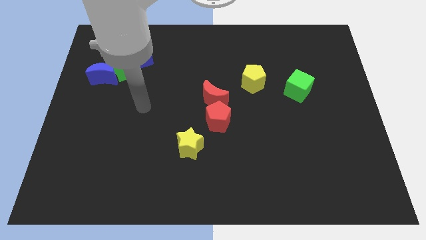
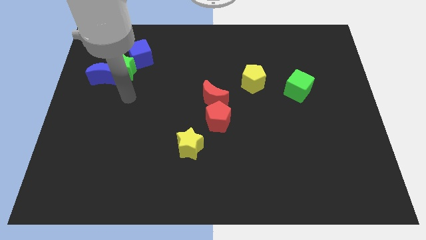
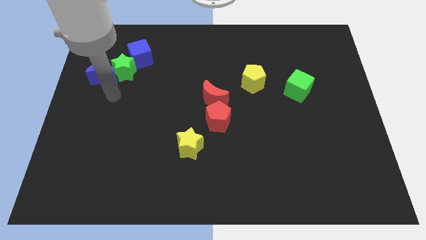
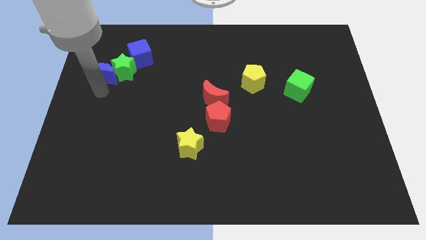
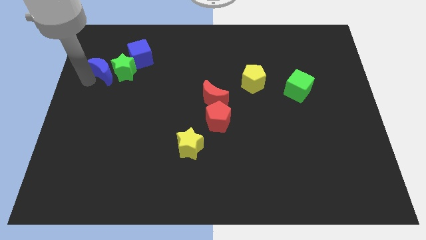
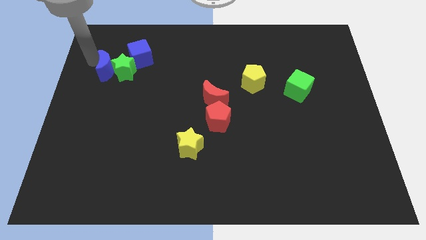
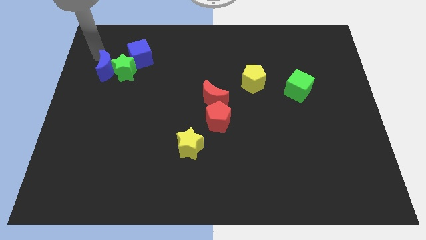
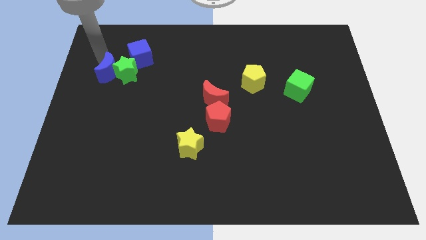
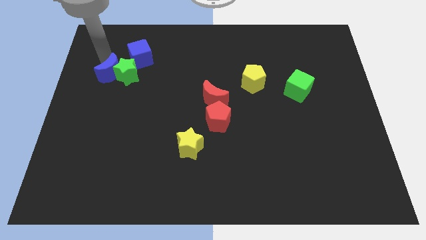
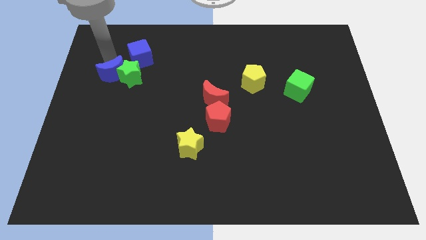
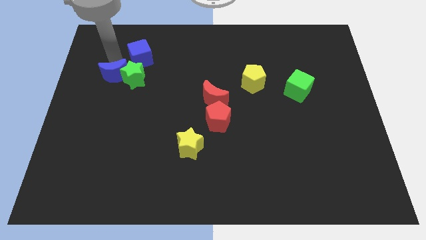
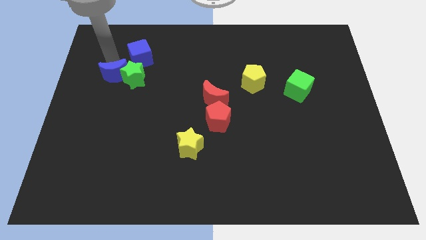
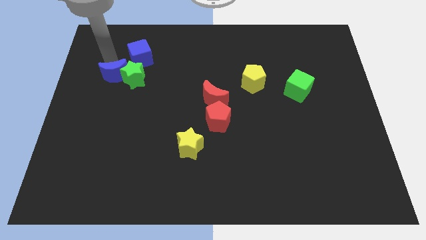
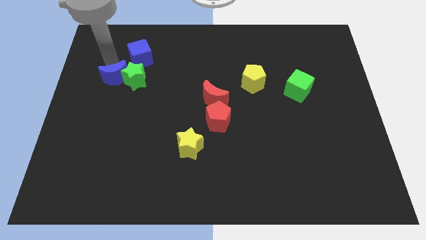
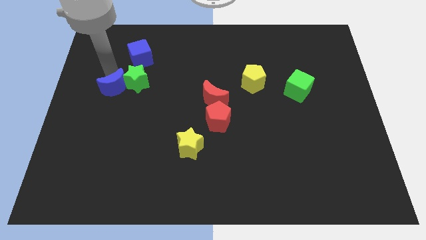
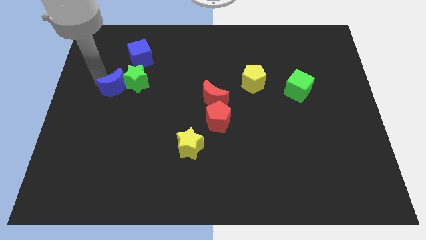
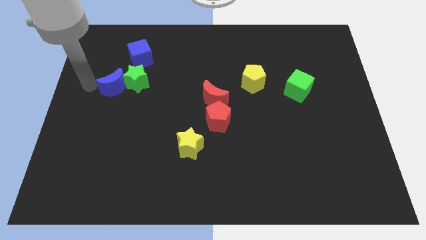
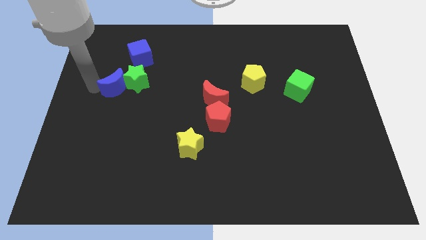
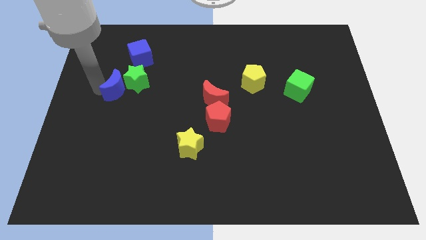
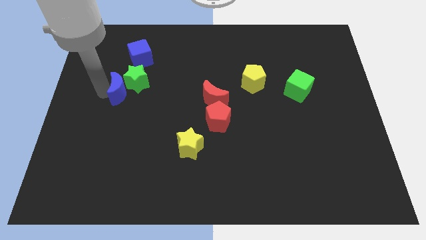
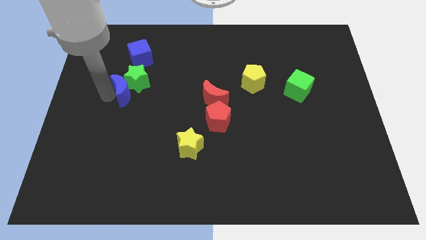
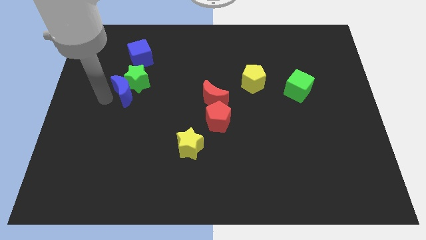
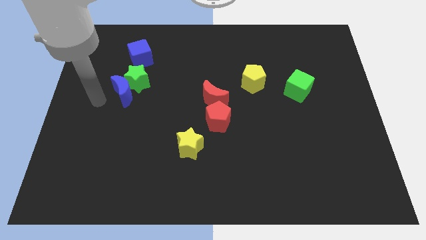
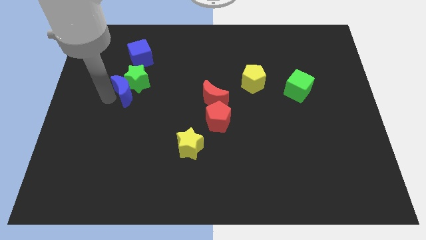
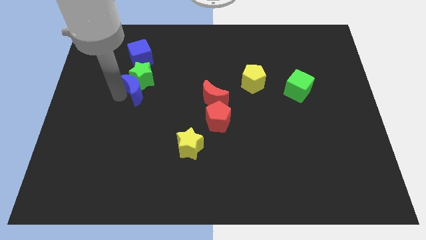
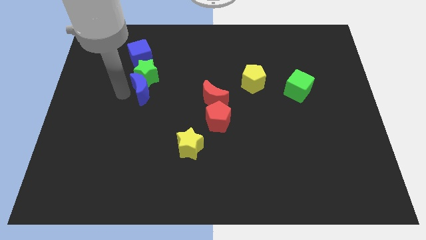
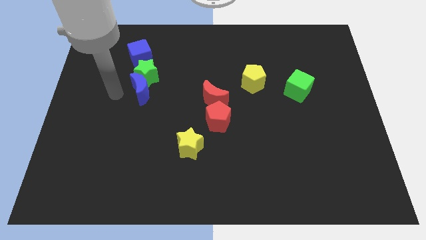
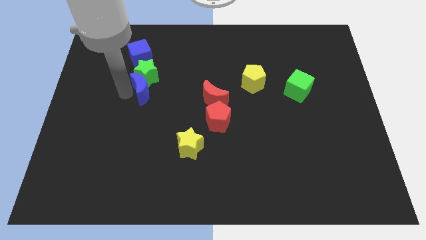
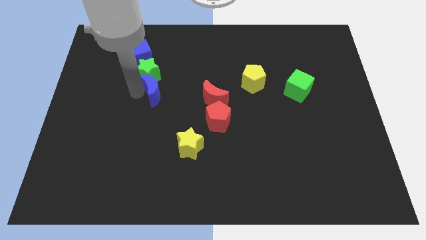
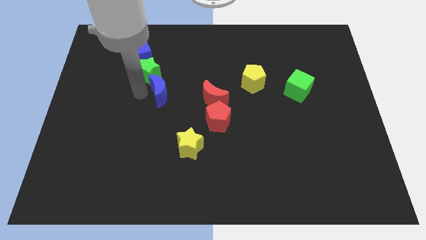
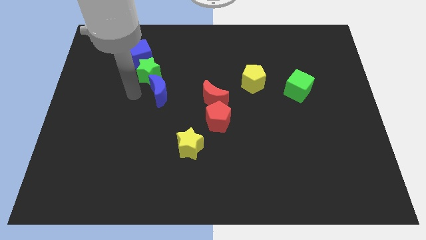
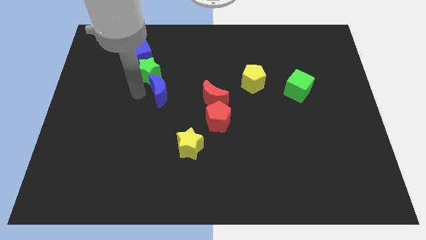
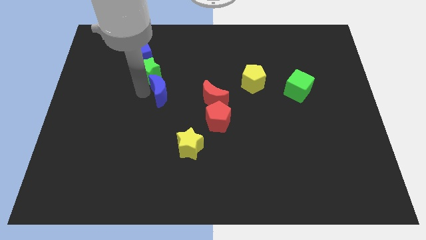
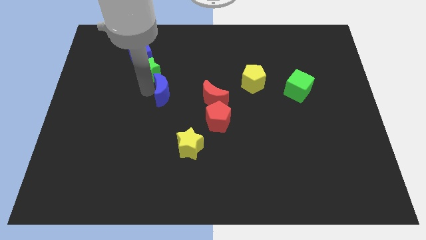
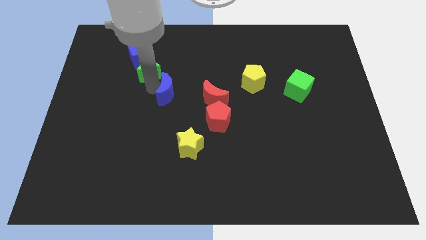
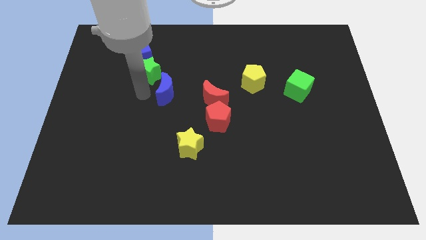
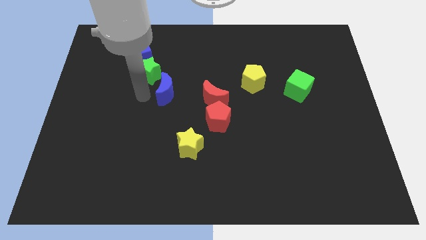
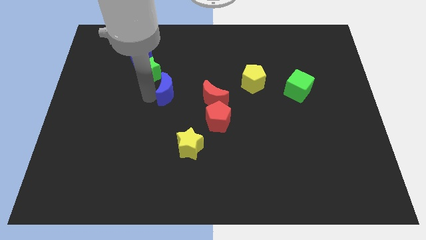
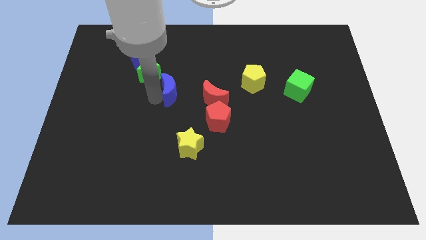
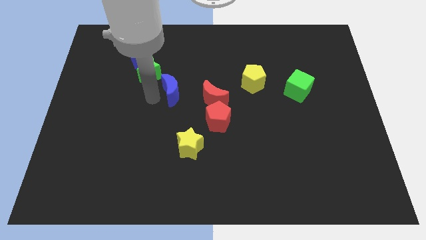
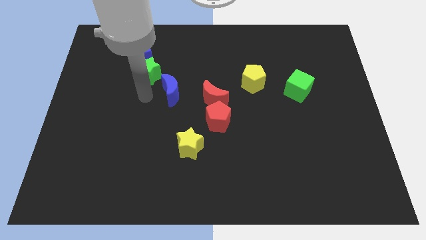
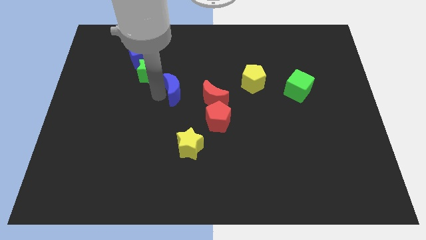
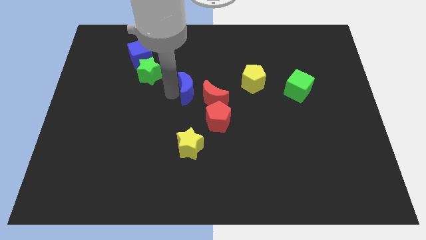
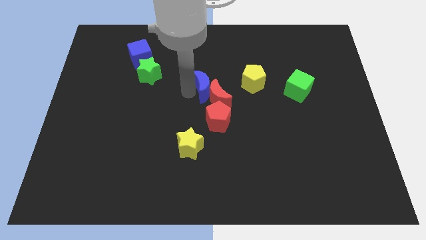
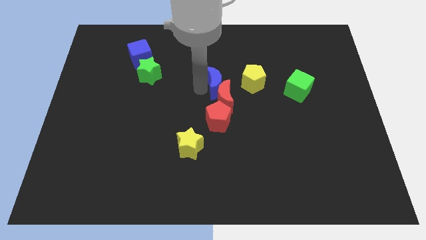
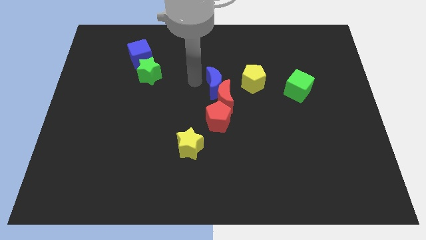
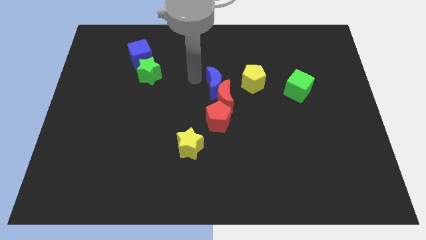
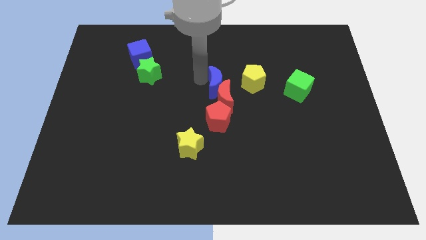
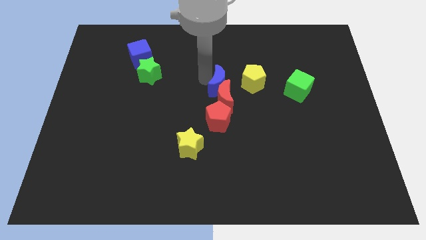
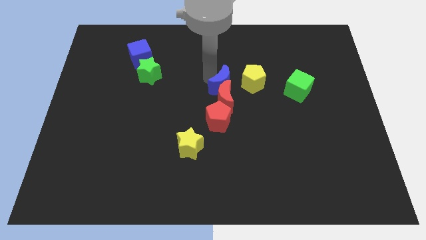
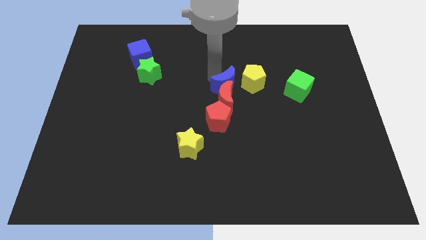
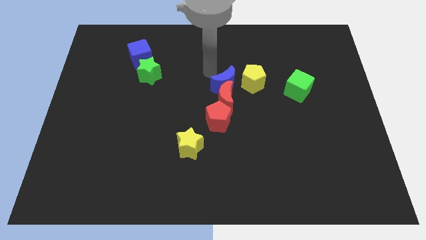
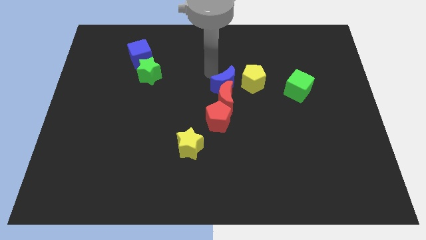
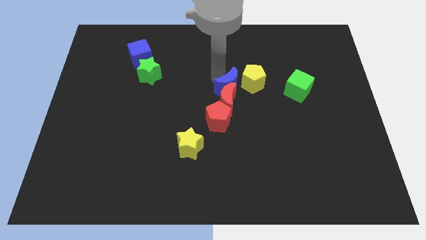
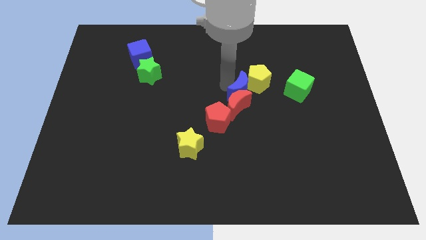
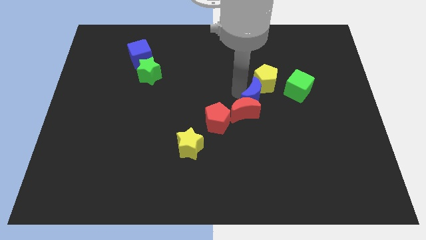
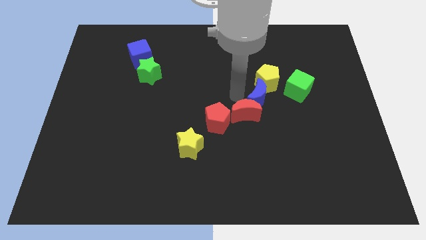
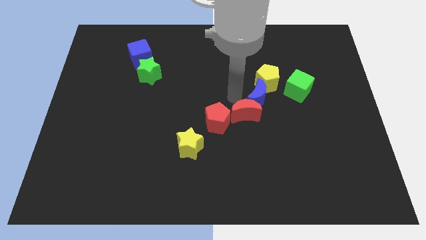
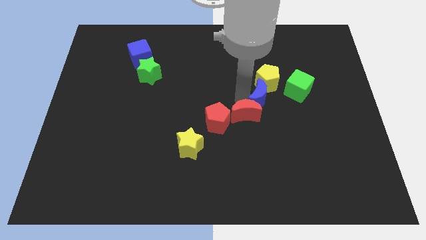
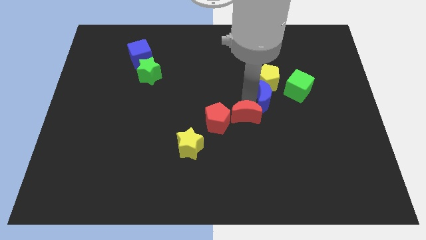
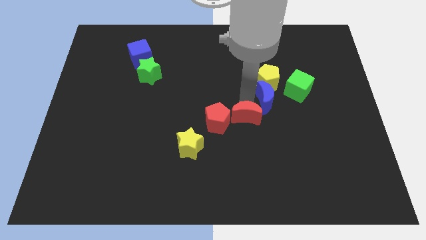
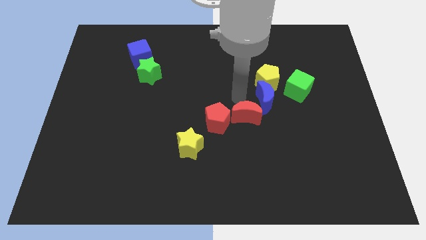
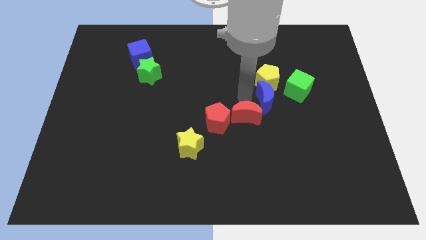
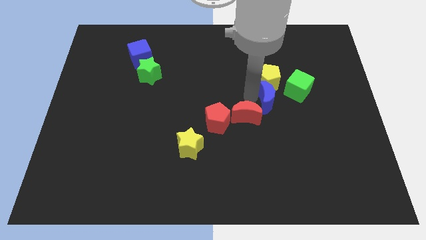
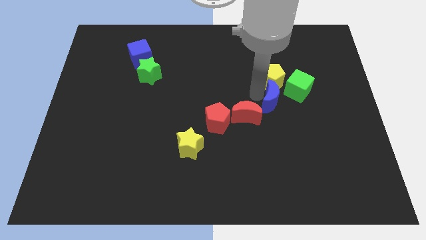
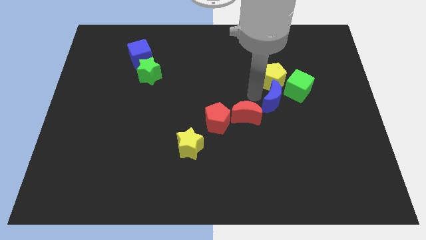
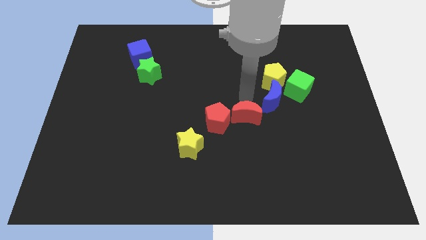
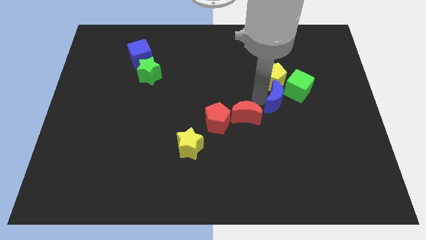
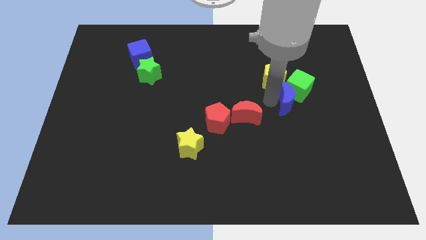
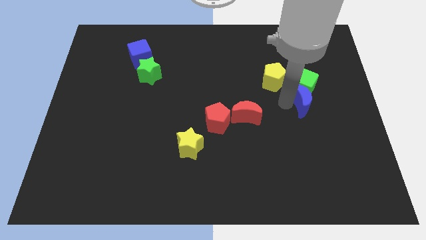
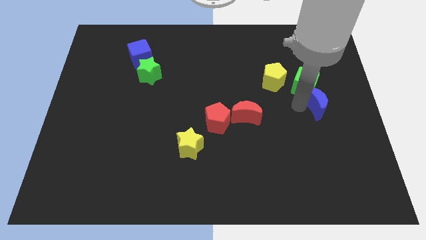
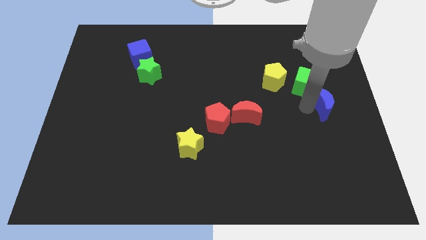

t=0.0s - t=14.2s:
move the blue moon to the center right

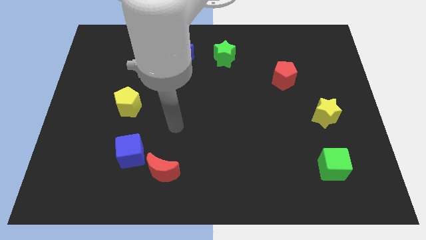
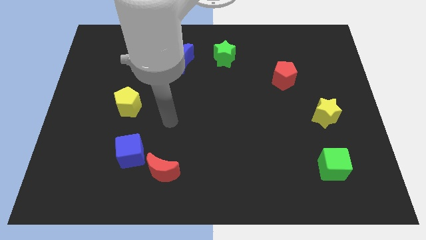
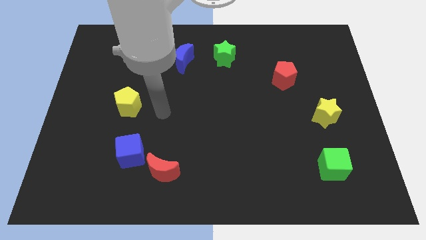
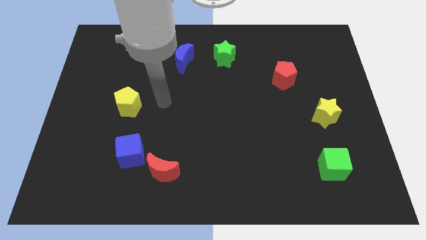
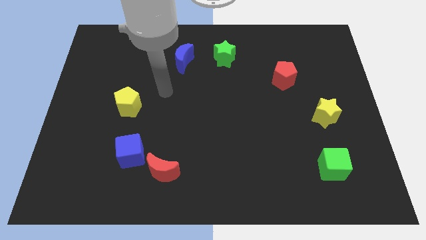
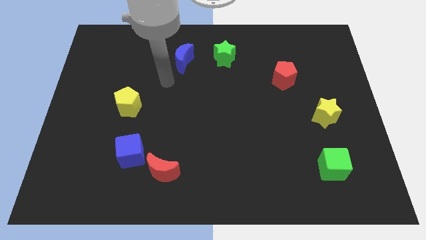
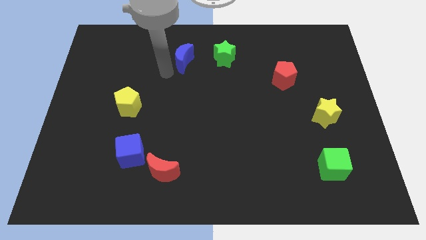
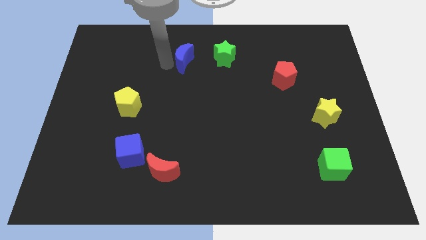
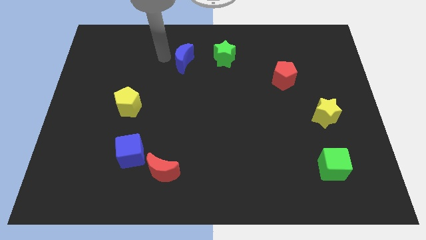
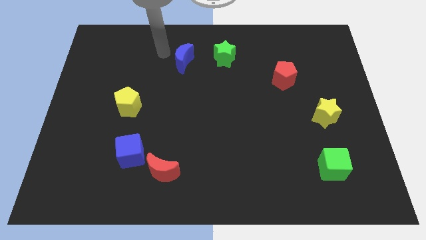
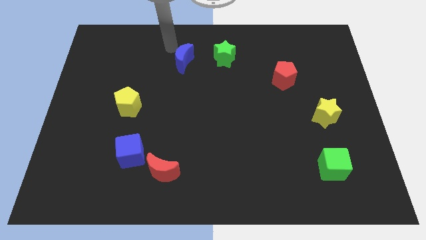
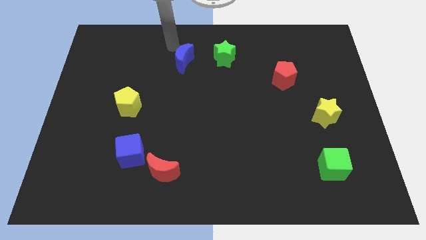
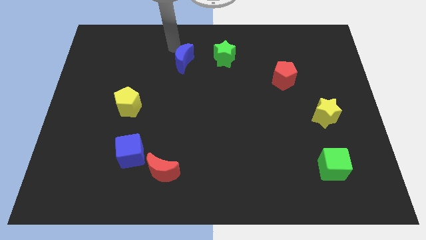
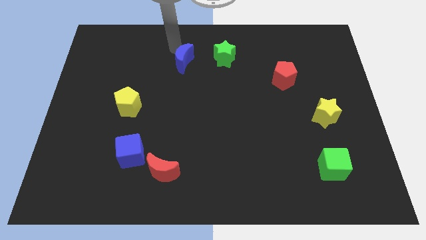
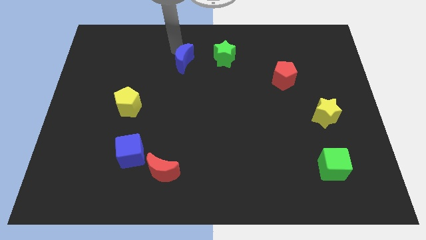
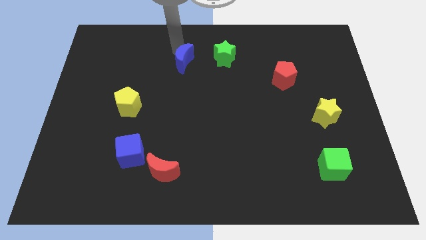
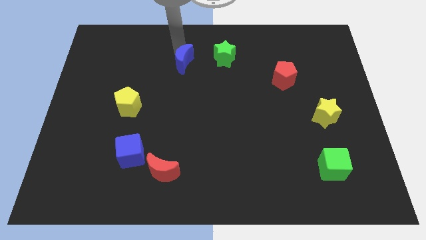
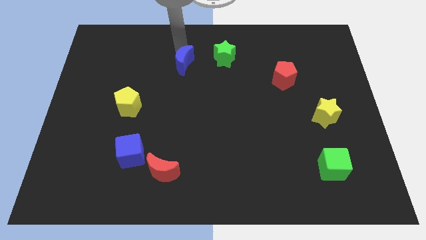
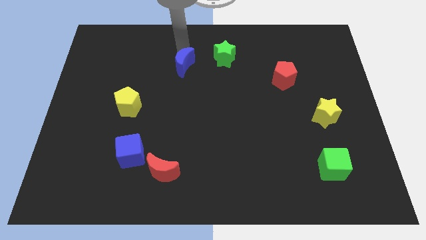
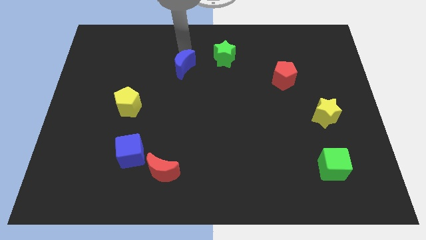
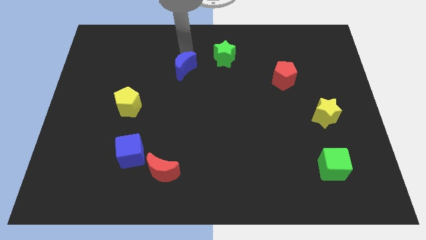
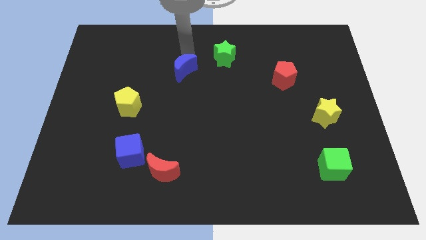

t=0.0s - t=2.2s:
push the blue moon to the middle of the board
